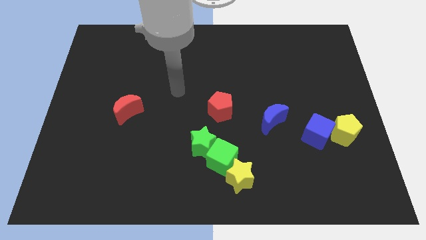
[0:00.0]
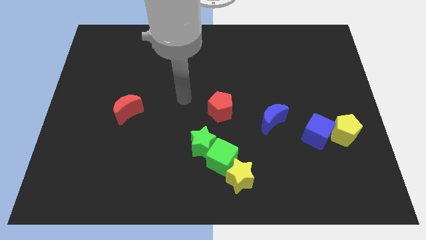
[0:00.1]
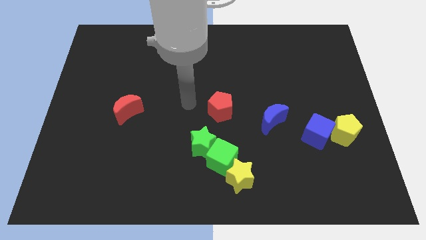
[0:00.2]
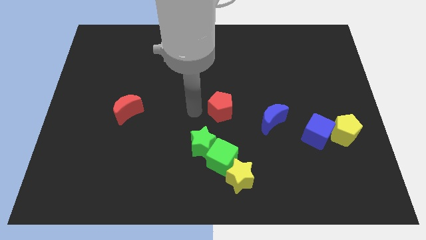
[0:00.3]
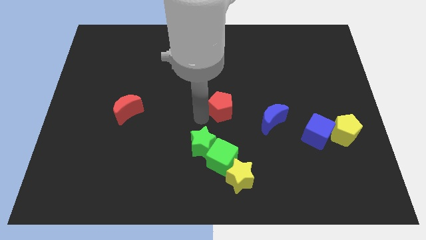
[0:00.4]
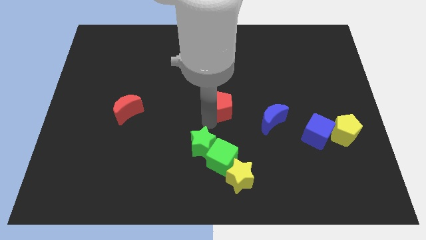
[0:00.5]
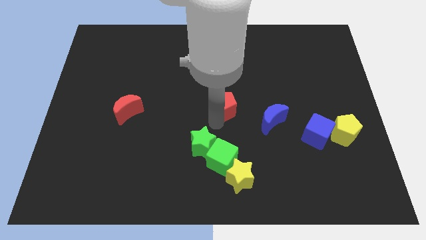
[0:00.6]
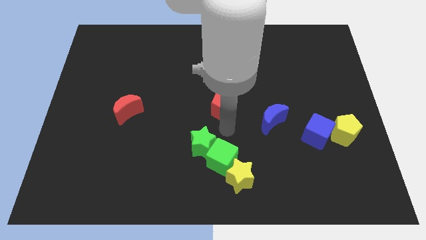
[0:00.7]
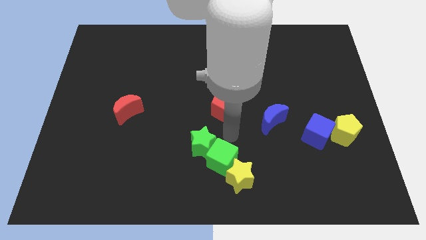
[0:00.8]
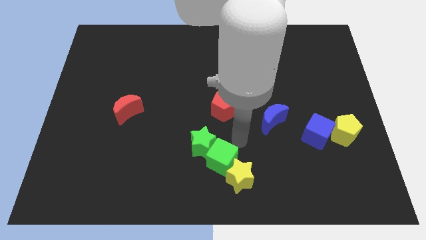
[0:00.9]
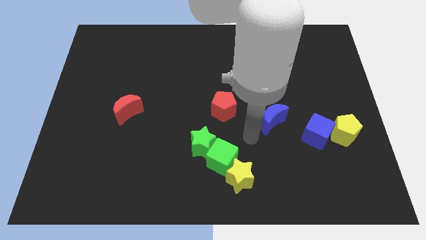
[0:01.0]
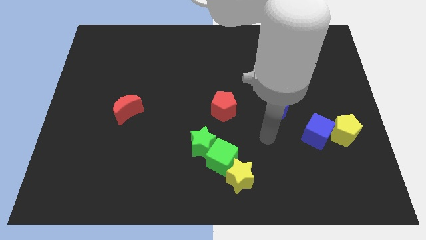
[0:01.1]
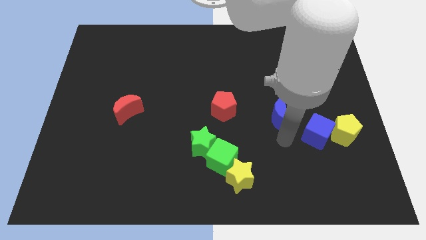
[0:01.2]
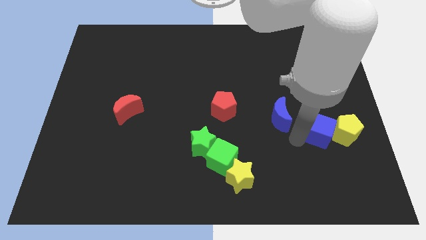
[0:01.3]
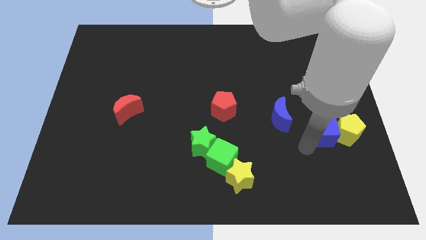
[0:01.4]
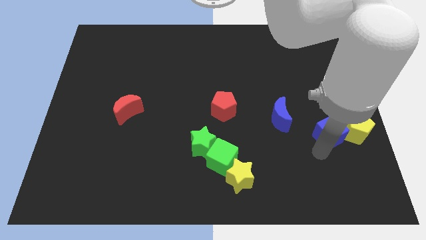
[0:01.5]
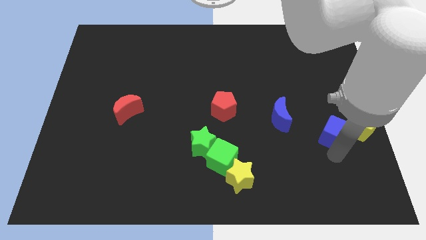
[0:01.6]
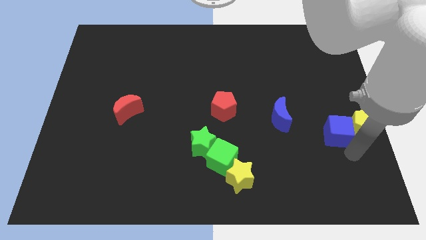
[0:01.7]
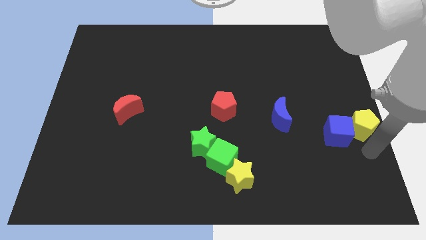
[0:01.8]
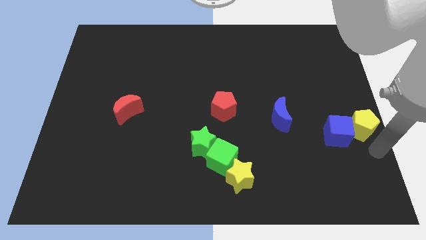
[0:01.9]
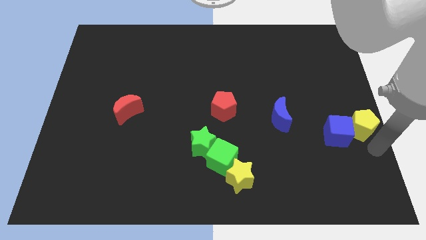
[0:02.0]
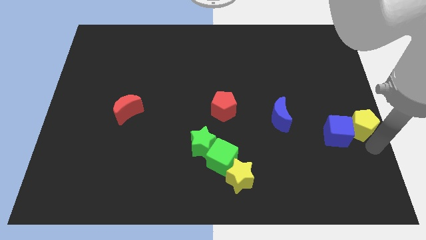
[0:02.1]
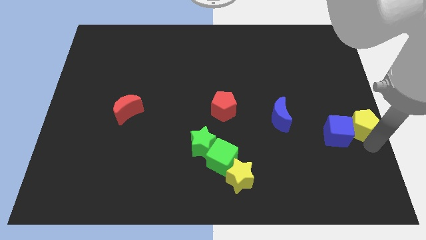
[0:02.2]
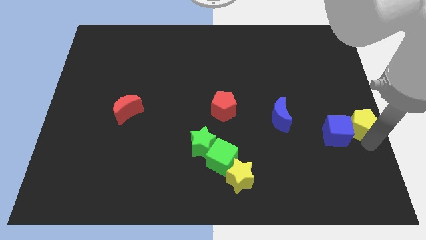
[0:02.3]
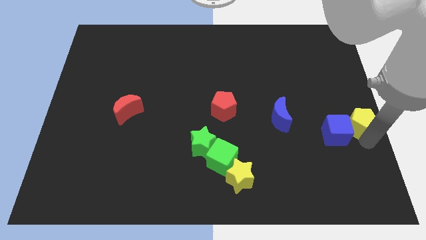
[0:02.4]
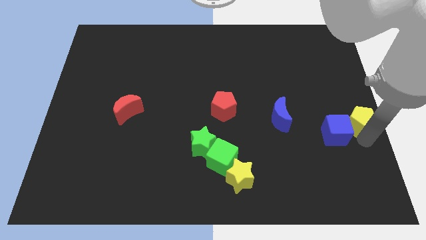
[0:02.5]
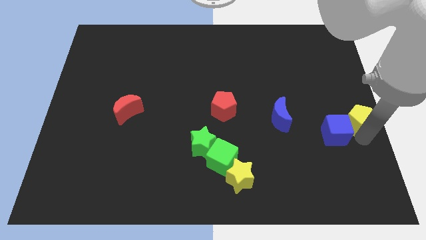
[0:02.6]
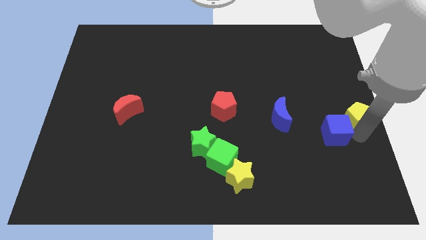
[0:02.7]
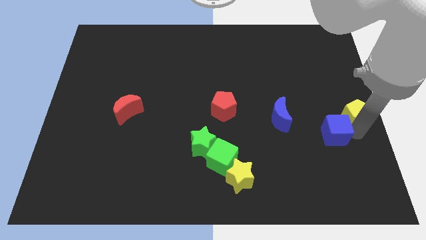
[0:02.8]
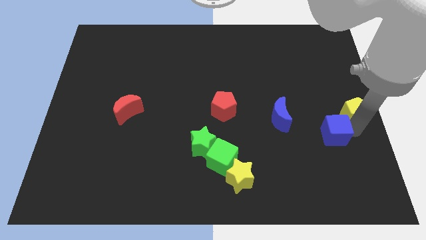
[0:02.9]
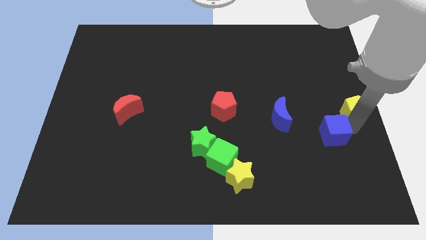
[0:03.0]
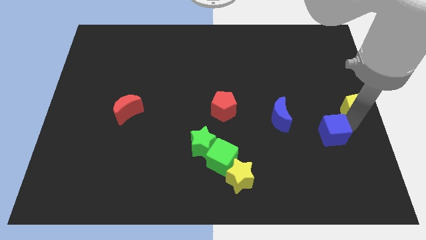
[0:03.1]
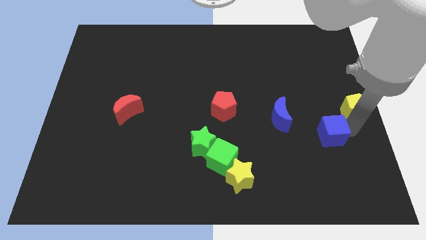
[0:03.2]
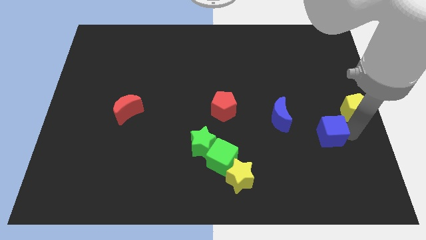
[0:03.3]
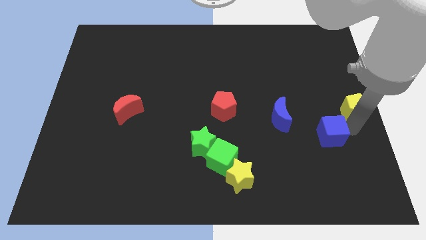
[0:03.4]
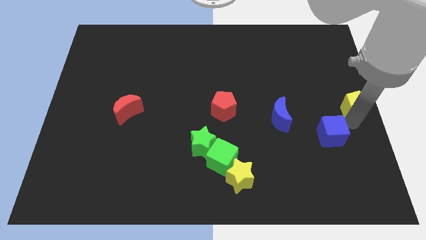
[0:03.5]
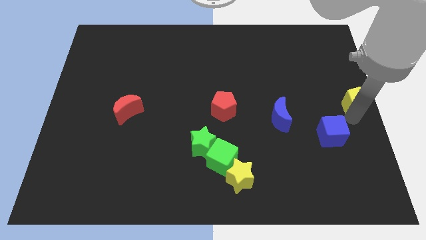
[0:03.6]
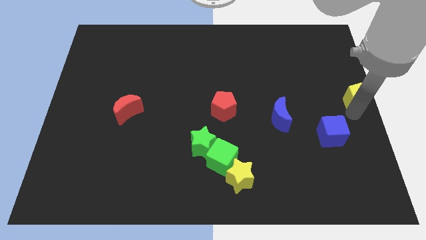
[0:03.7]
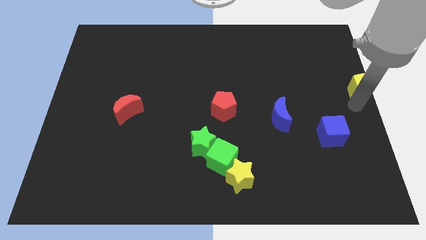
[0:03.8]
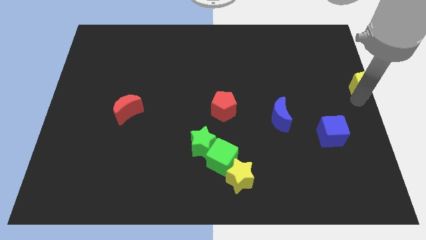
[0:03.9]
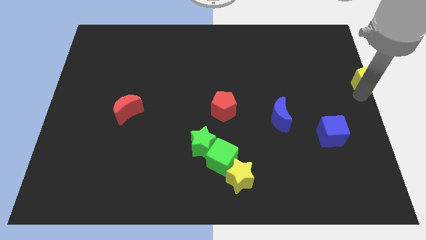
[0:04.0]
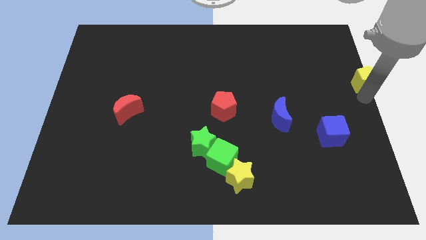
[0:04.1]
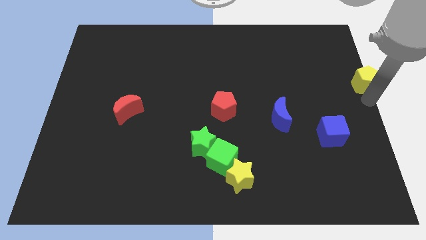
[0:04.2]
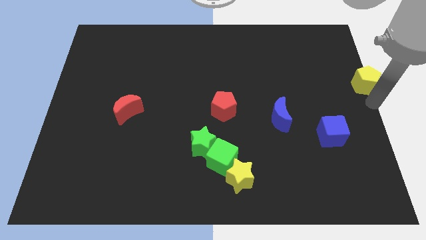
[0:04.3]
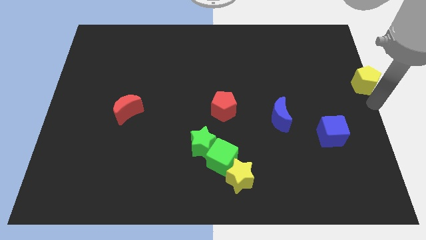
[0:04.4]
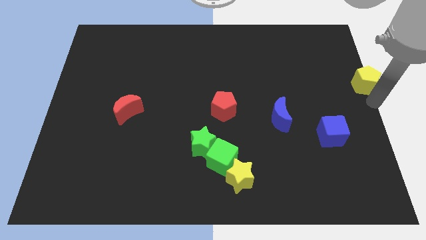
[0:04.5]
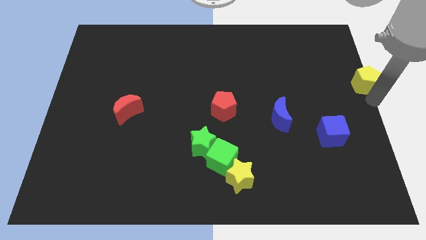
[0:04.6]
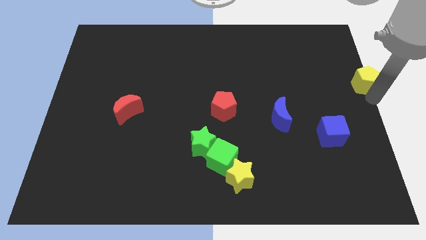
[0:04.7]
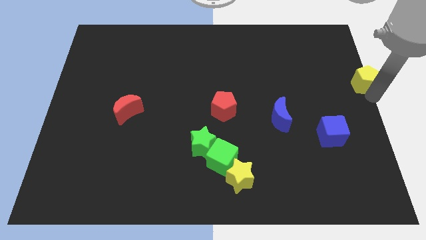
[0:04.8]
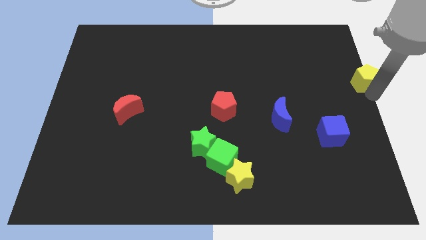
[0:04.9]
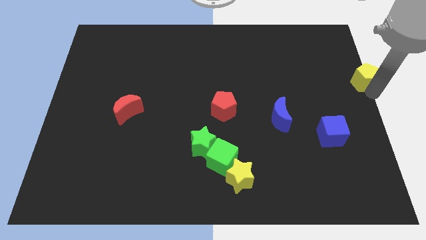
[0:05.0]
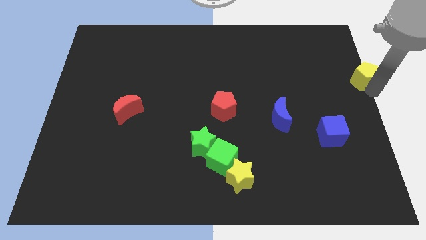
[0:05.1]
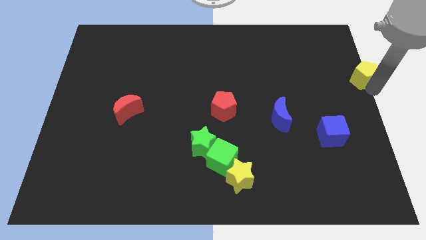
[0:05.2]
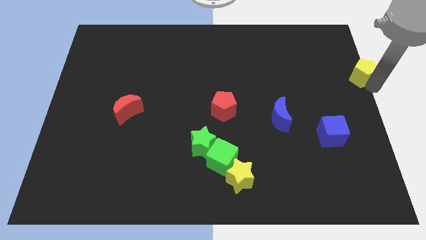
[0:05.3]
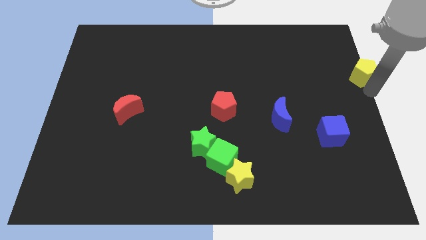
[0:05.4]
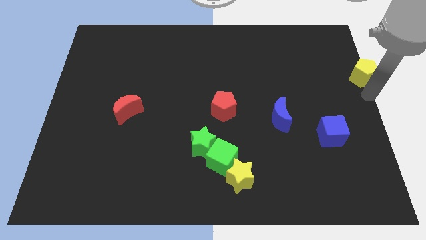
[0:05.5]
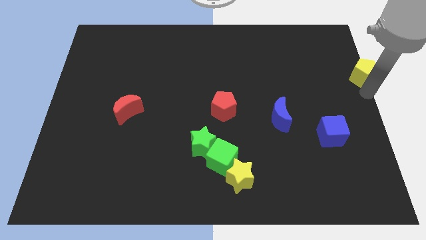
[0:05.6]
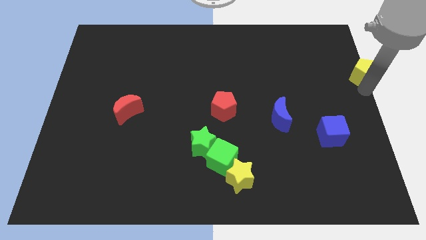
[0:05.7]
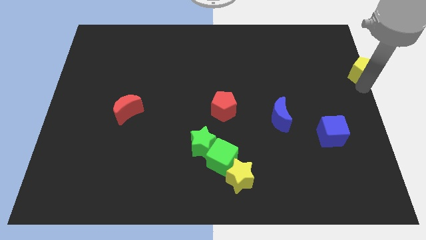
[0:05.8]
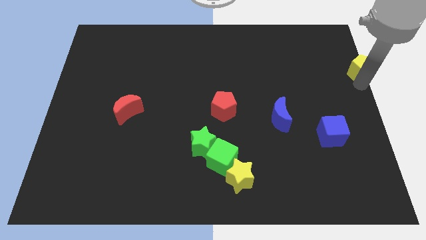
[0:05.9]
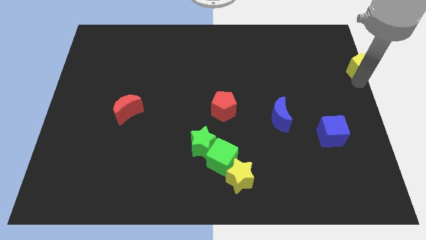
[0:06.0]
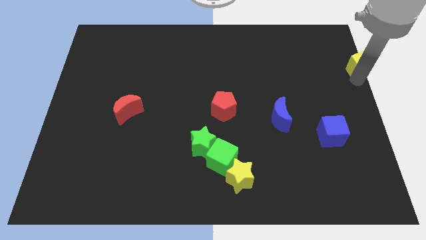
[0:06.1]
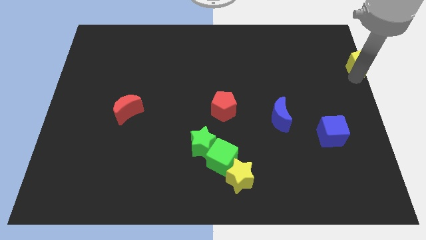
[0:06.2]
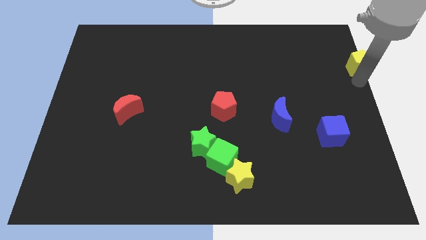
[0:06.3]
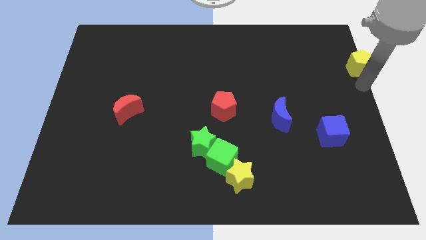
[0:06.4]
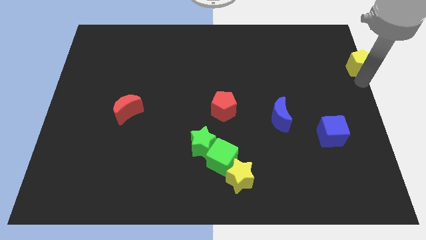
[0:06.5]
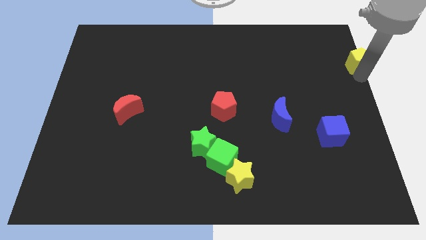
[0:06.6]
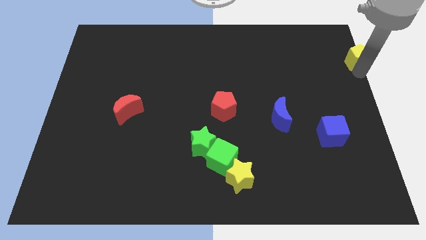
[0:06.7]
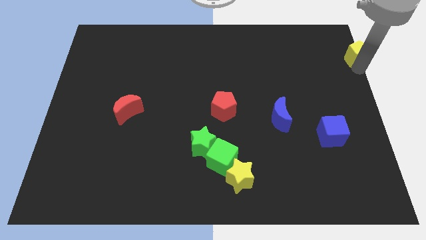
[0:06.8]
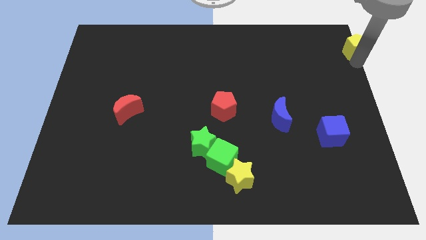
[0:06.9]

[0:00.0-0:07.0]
put the yellow pentagon to the top right
